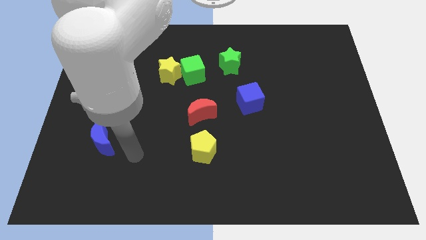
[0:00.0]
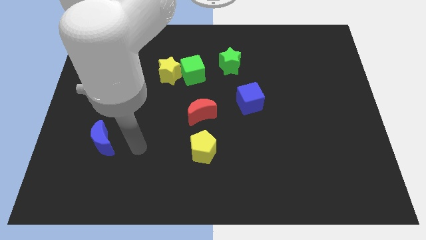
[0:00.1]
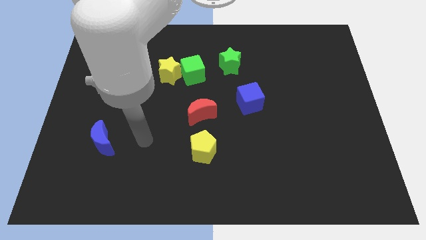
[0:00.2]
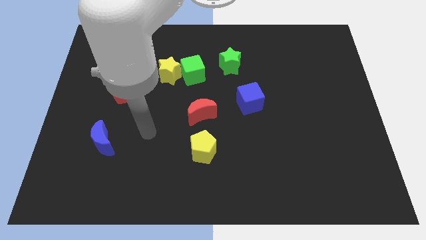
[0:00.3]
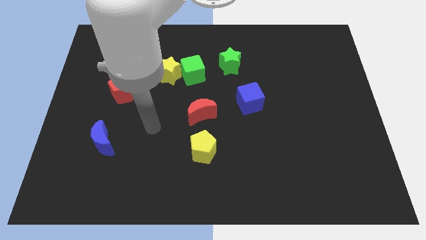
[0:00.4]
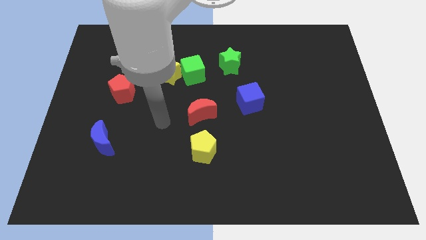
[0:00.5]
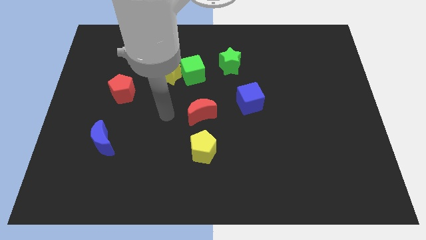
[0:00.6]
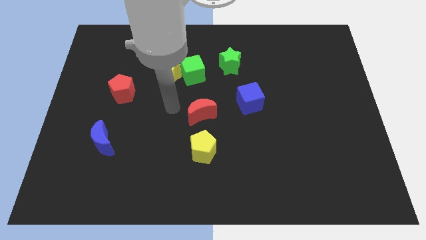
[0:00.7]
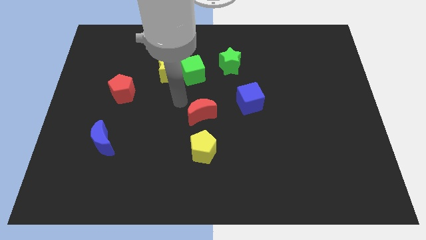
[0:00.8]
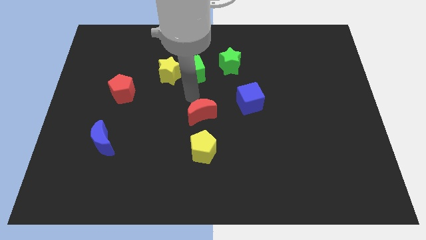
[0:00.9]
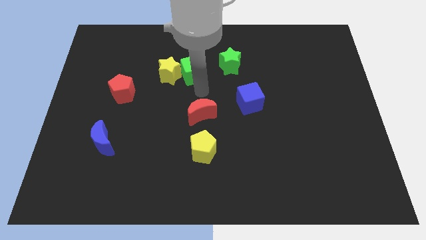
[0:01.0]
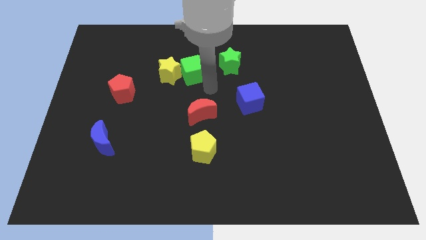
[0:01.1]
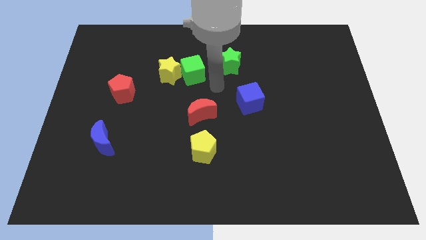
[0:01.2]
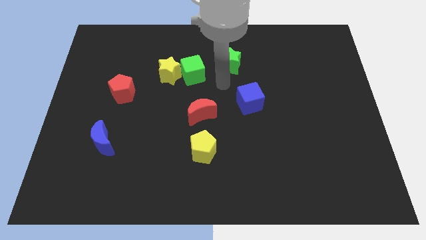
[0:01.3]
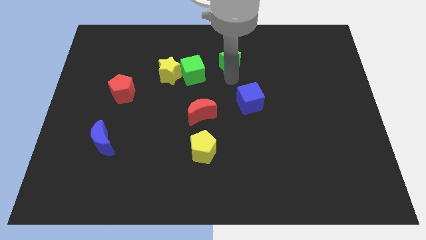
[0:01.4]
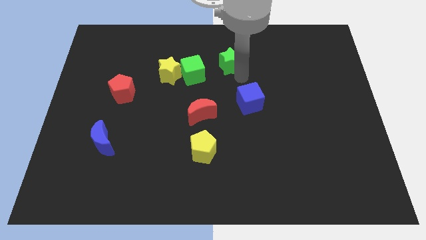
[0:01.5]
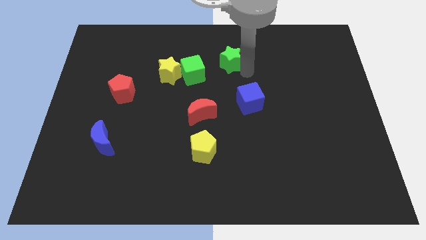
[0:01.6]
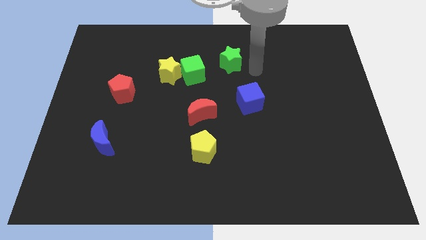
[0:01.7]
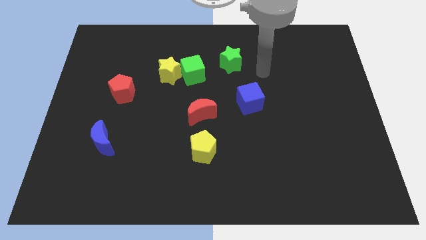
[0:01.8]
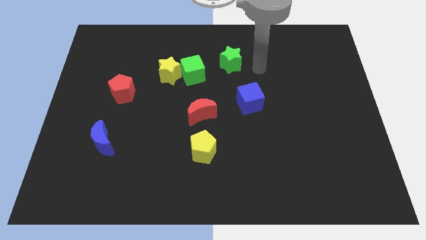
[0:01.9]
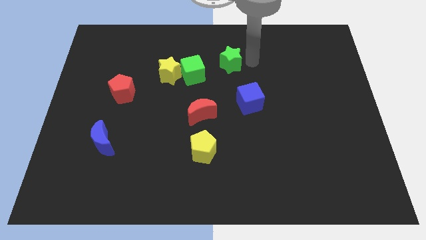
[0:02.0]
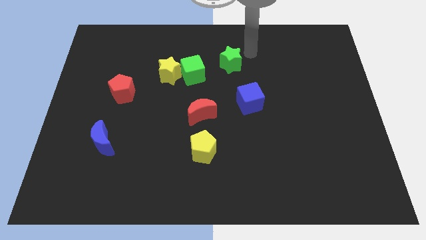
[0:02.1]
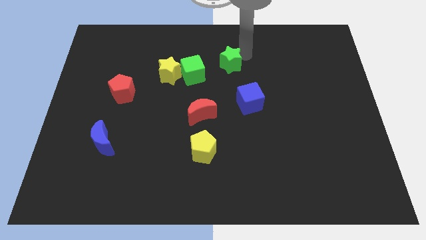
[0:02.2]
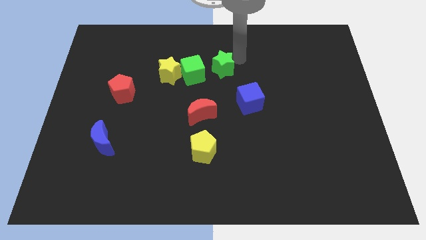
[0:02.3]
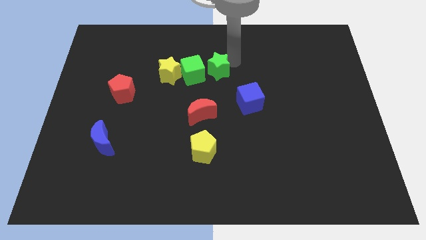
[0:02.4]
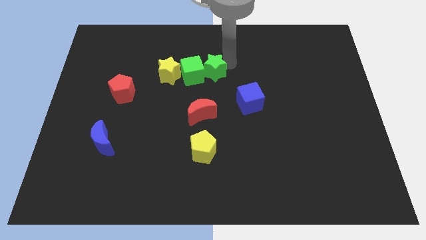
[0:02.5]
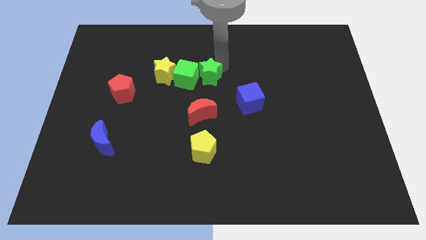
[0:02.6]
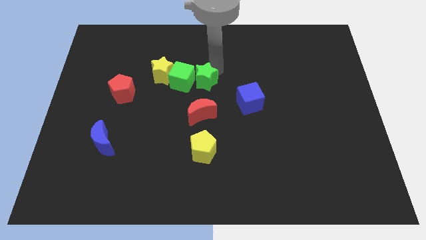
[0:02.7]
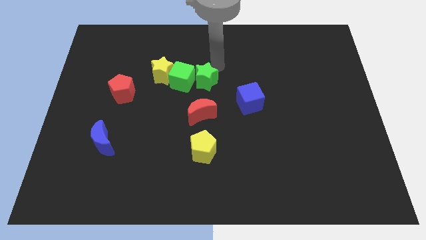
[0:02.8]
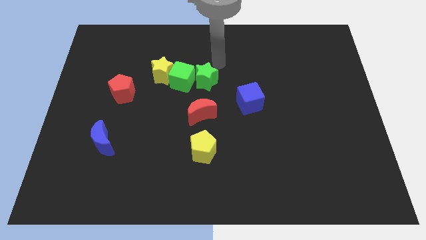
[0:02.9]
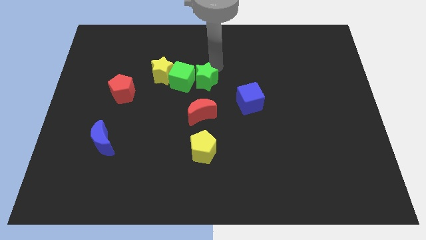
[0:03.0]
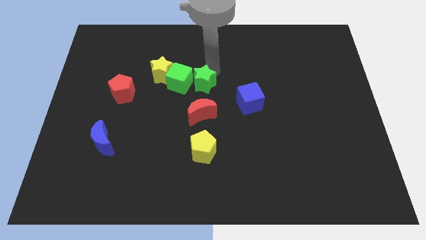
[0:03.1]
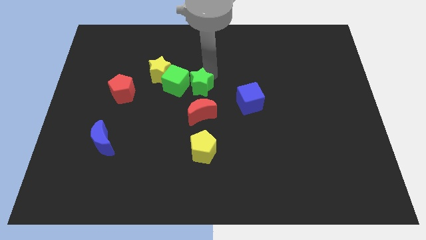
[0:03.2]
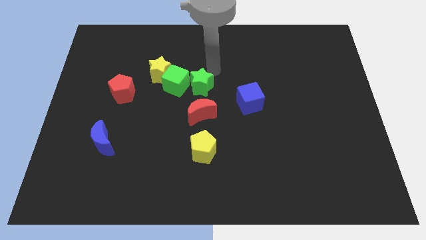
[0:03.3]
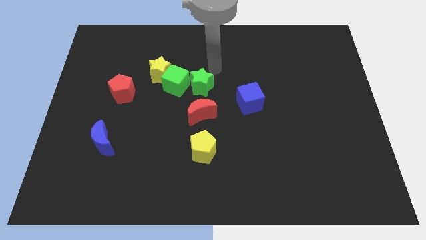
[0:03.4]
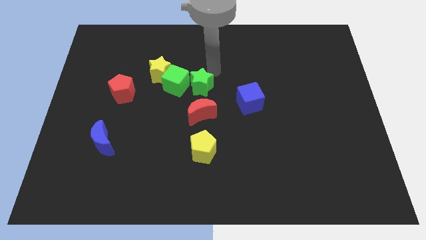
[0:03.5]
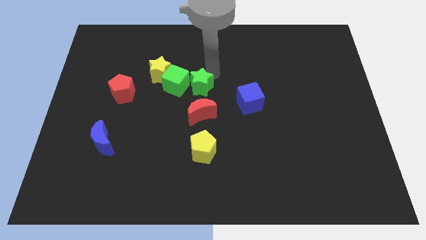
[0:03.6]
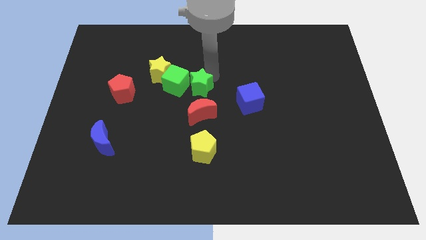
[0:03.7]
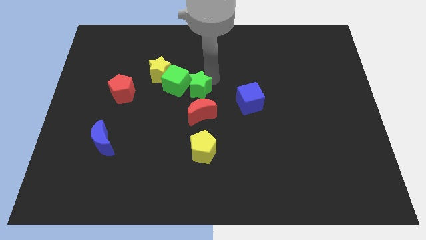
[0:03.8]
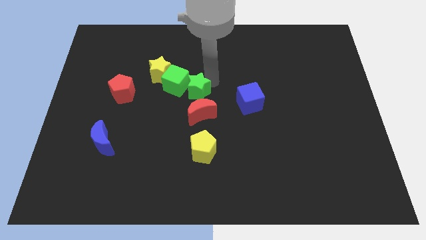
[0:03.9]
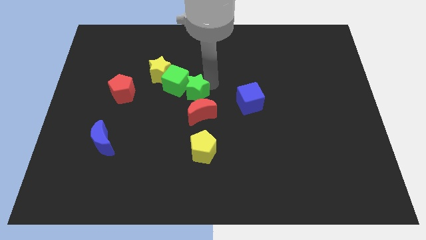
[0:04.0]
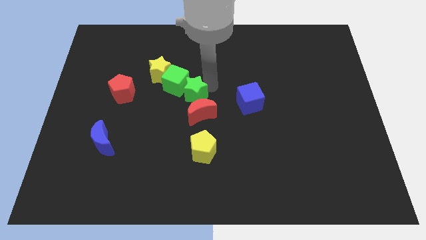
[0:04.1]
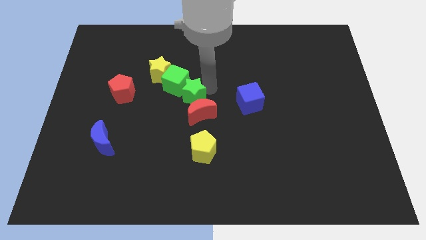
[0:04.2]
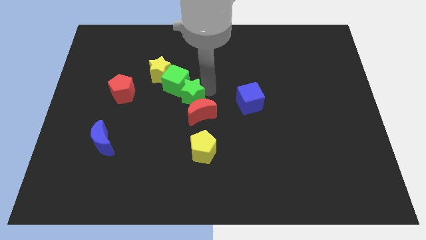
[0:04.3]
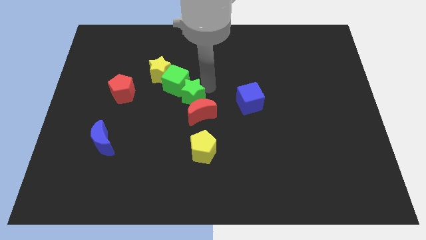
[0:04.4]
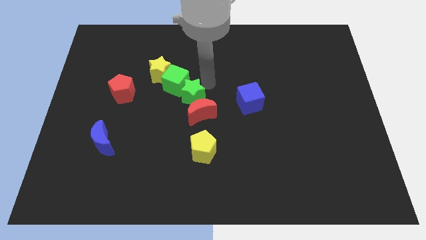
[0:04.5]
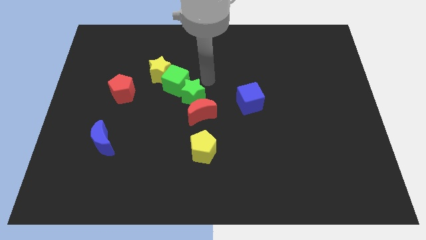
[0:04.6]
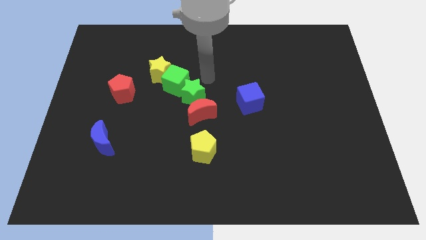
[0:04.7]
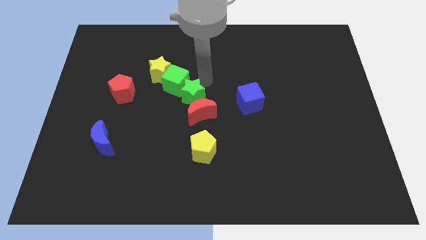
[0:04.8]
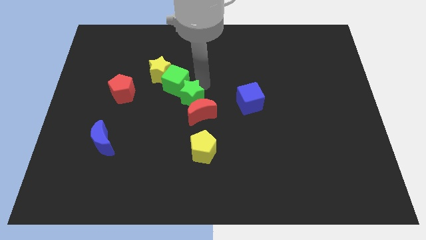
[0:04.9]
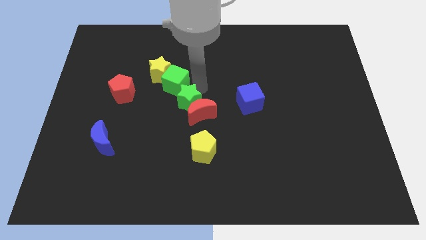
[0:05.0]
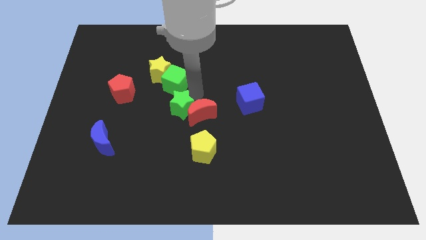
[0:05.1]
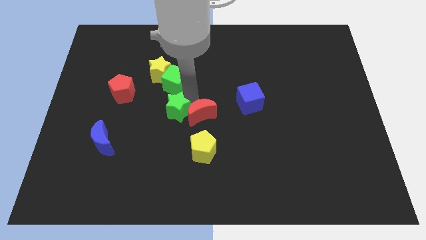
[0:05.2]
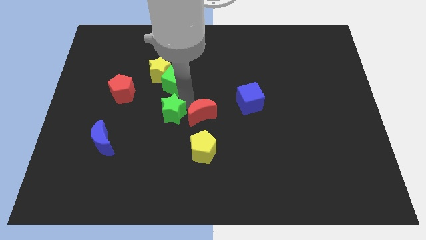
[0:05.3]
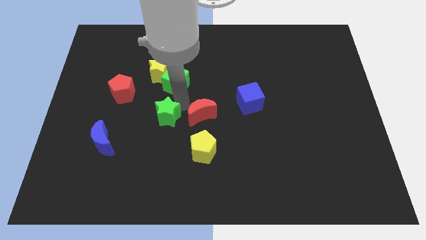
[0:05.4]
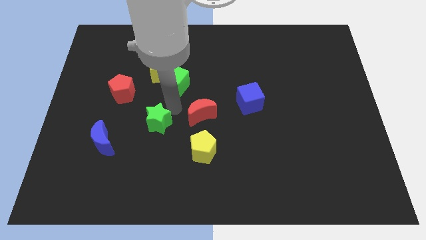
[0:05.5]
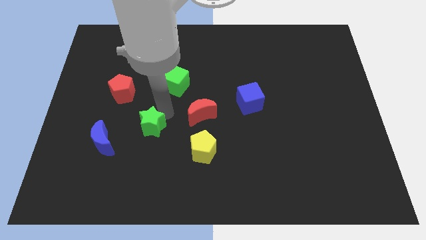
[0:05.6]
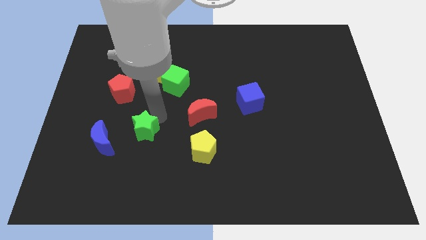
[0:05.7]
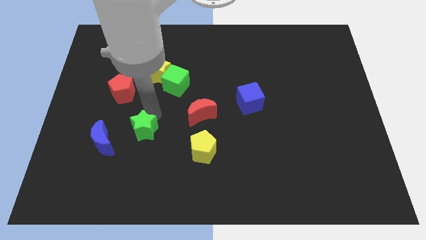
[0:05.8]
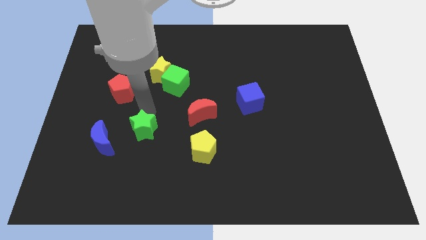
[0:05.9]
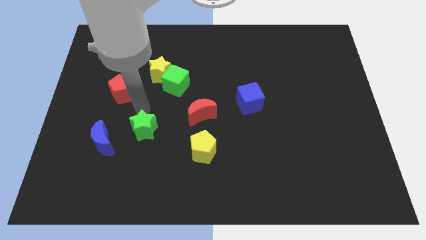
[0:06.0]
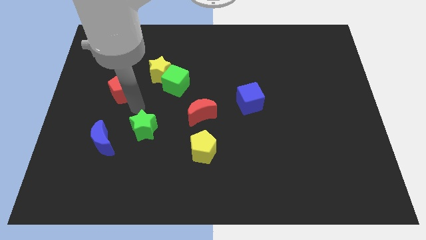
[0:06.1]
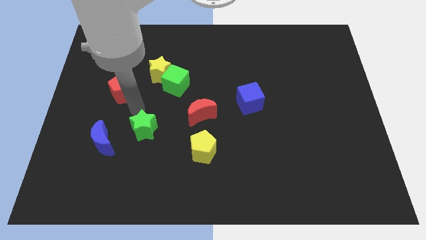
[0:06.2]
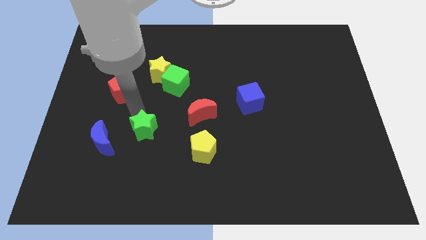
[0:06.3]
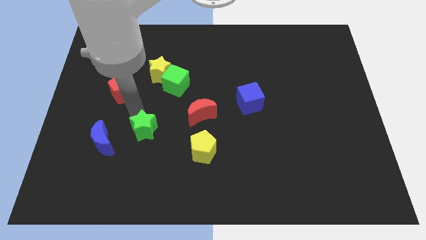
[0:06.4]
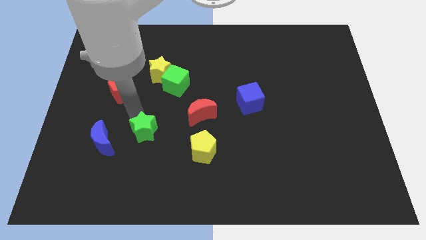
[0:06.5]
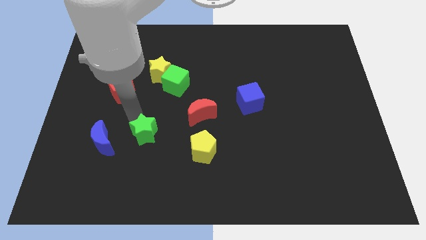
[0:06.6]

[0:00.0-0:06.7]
move the green star left of the yellow pentagon

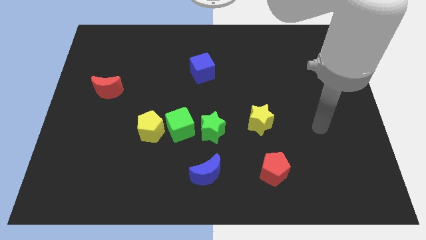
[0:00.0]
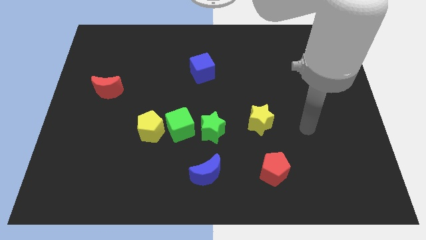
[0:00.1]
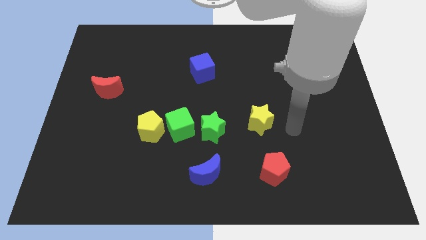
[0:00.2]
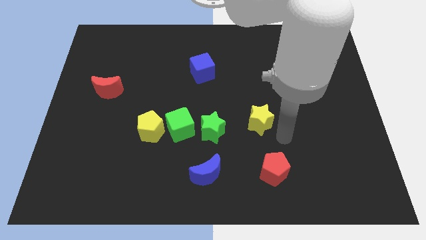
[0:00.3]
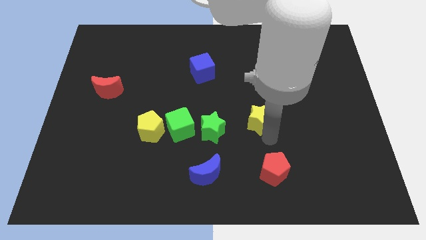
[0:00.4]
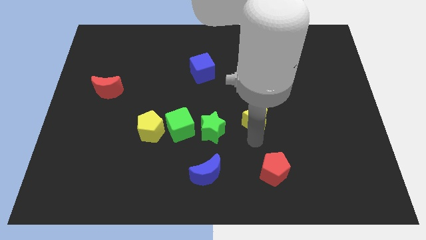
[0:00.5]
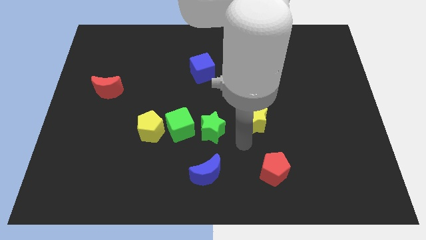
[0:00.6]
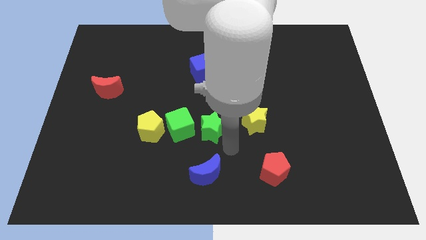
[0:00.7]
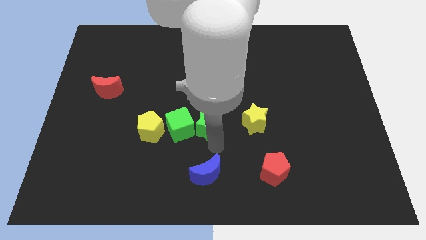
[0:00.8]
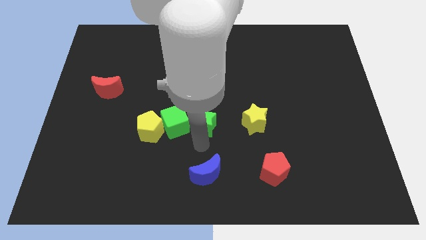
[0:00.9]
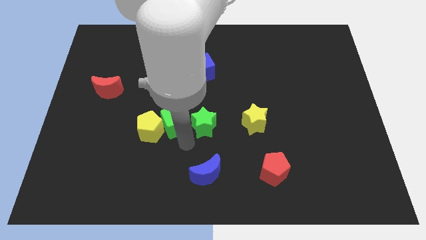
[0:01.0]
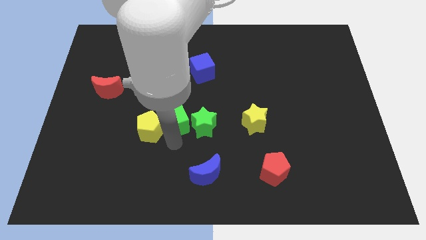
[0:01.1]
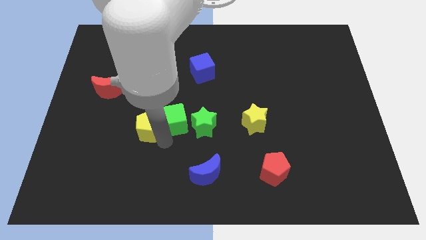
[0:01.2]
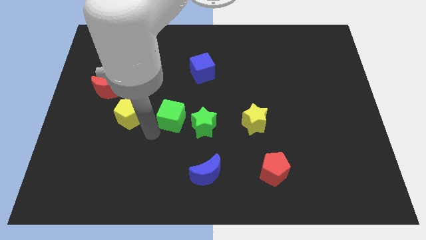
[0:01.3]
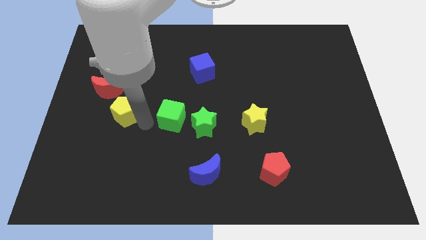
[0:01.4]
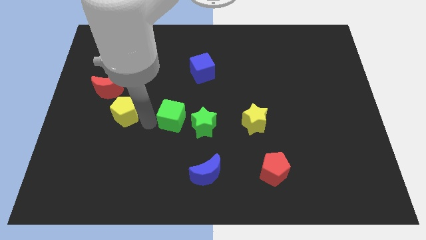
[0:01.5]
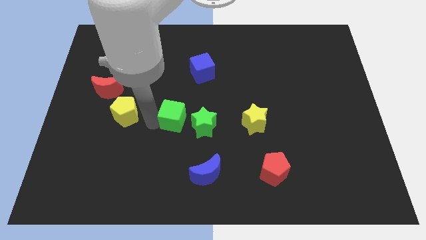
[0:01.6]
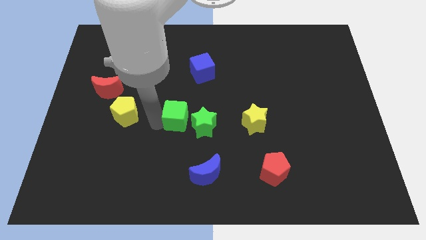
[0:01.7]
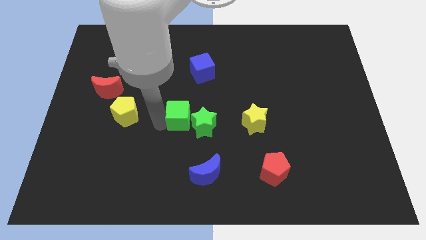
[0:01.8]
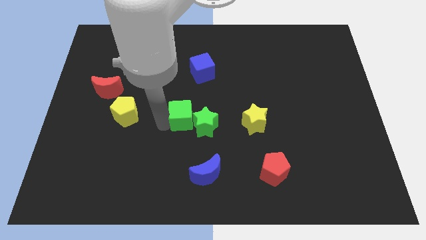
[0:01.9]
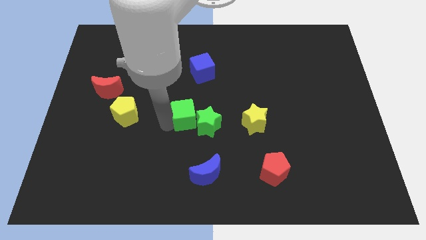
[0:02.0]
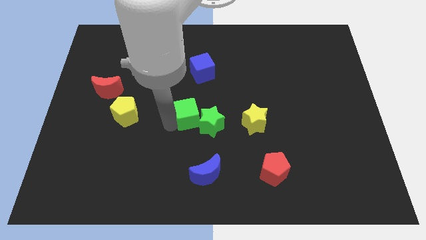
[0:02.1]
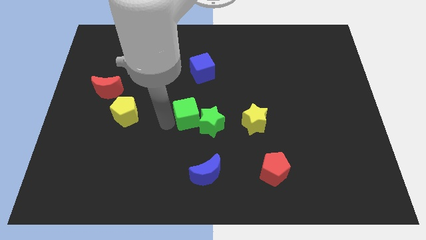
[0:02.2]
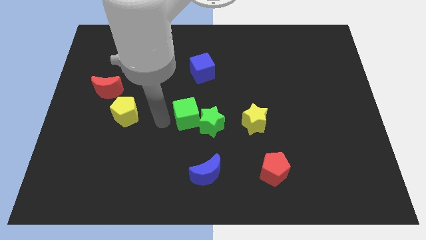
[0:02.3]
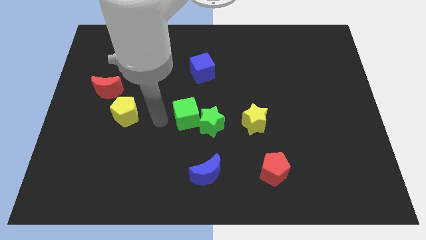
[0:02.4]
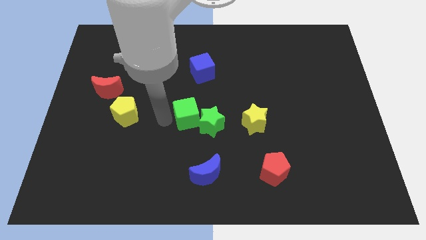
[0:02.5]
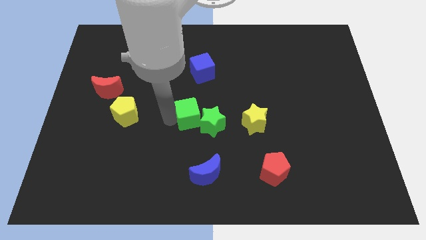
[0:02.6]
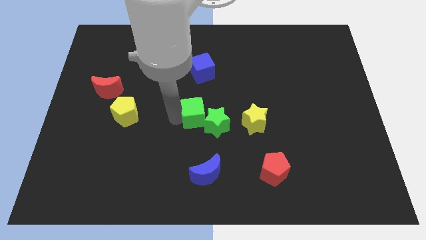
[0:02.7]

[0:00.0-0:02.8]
push the green cube to the top side of the blue moon
